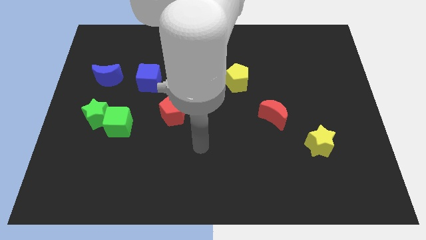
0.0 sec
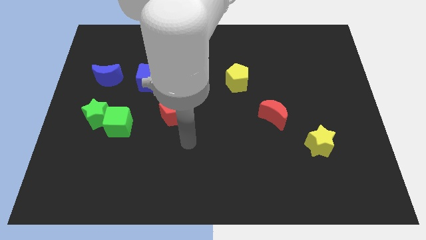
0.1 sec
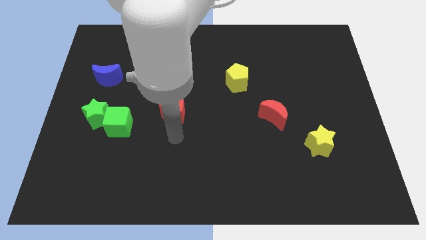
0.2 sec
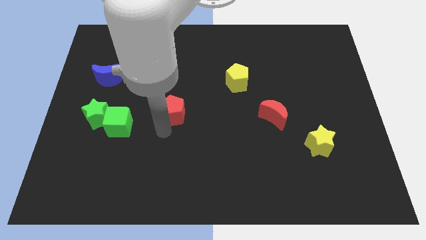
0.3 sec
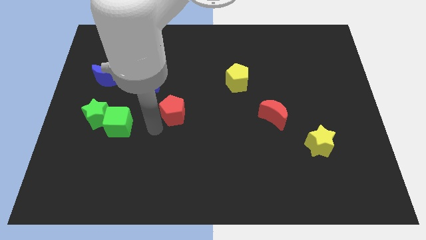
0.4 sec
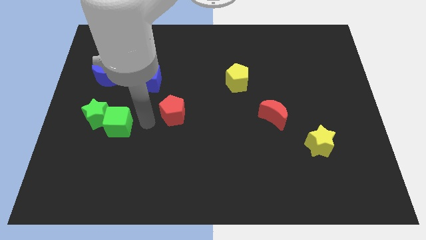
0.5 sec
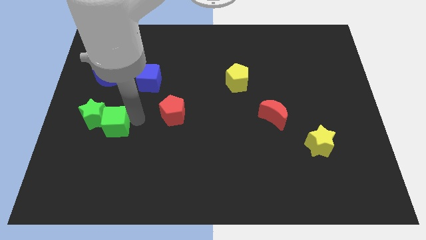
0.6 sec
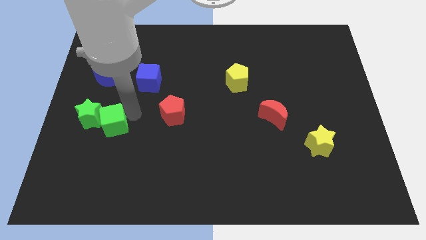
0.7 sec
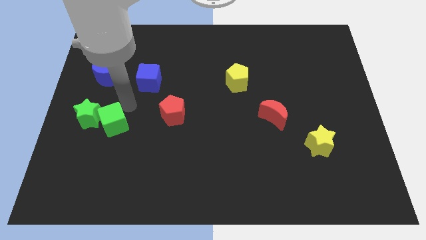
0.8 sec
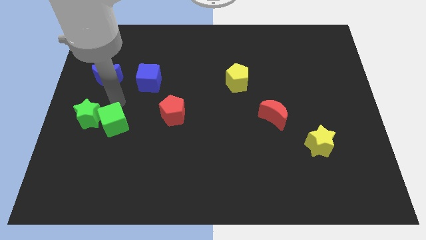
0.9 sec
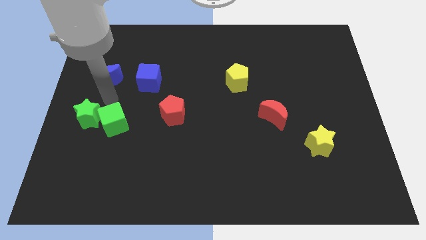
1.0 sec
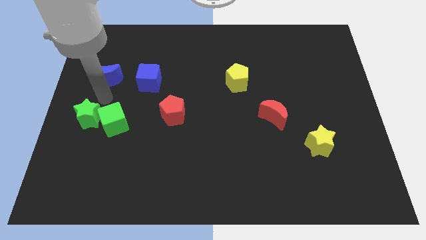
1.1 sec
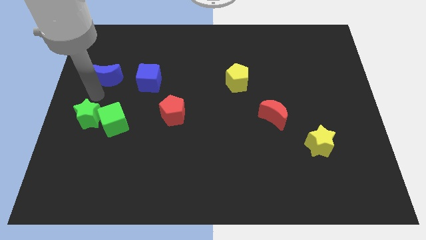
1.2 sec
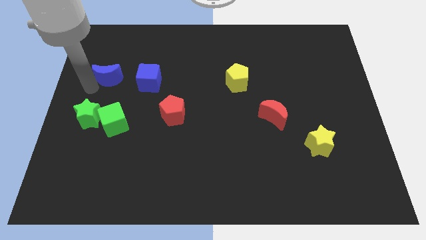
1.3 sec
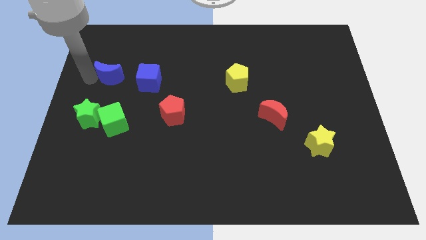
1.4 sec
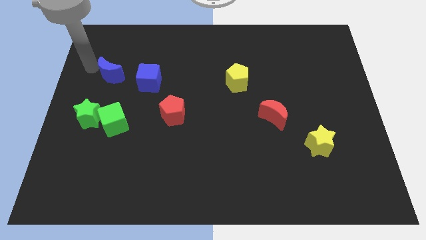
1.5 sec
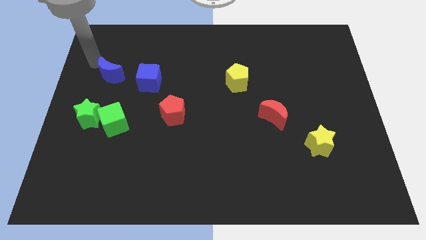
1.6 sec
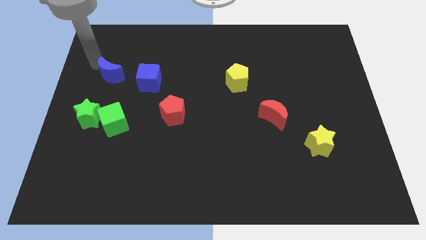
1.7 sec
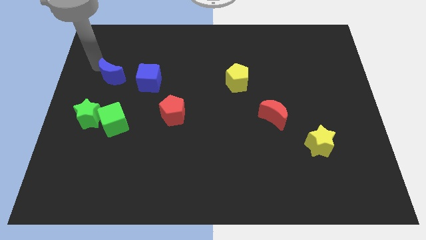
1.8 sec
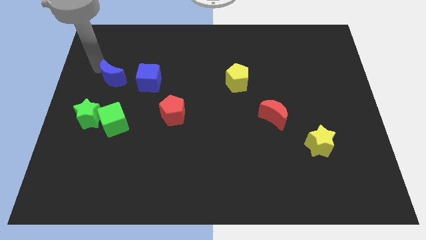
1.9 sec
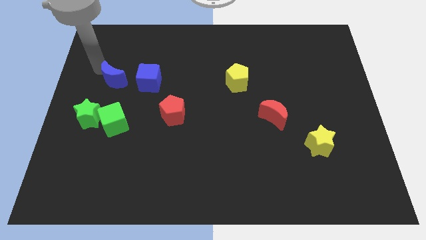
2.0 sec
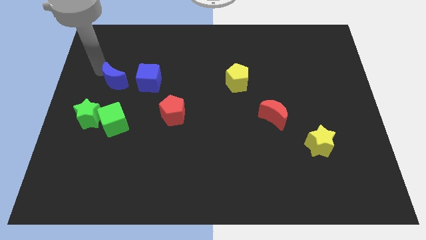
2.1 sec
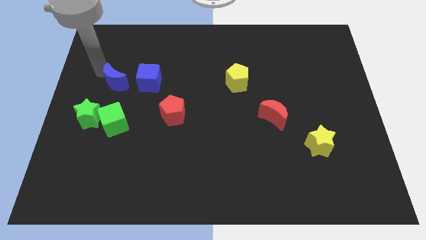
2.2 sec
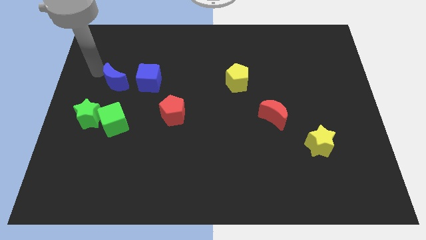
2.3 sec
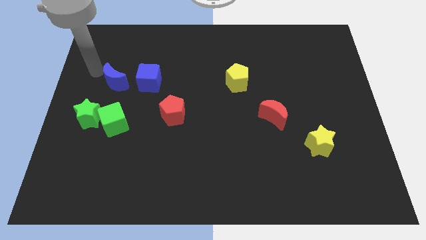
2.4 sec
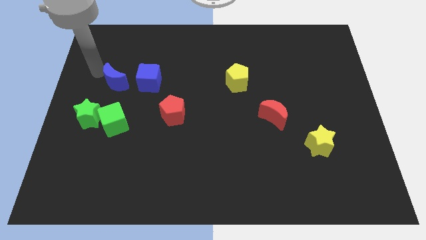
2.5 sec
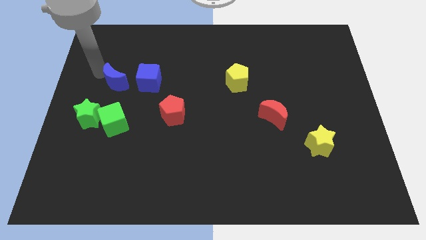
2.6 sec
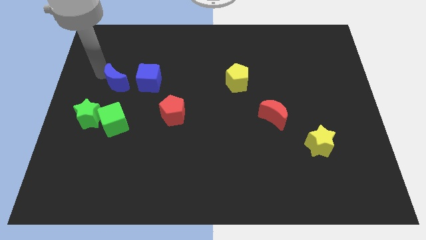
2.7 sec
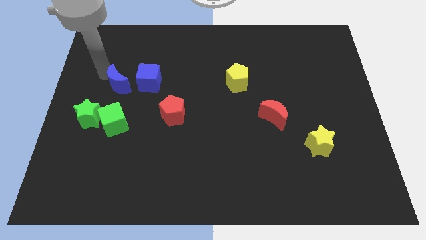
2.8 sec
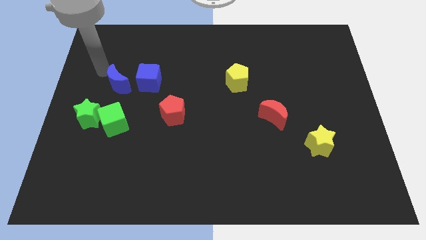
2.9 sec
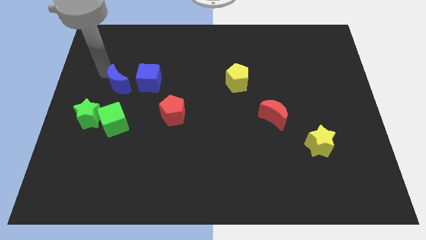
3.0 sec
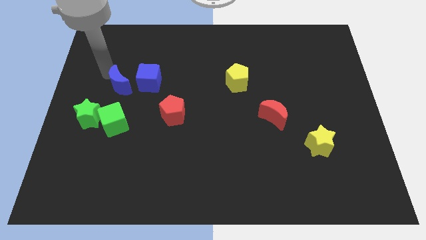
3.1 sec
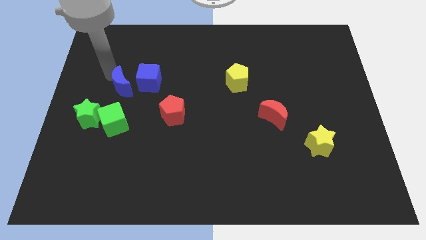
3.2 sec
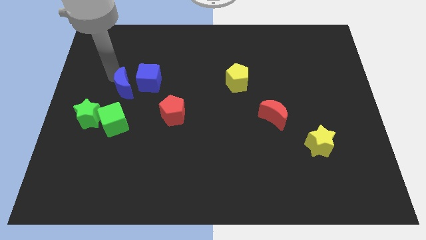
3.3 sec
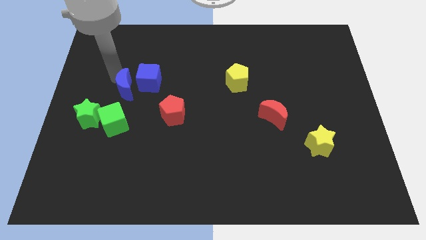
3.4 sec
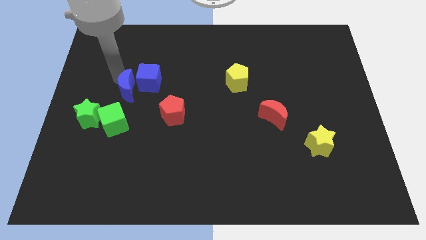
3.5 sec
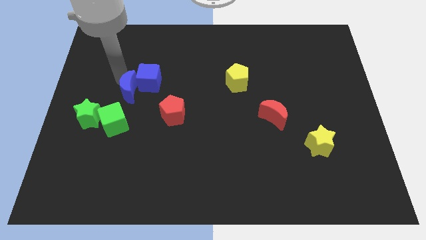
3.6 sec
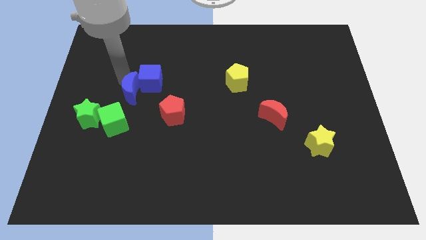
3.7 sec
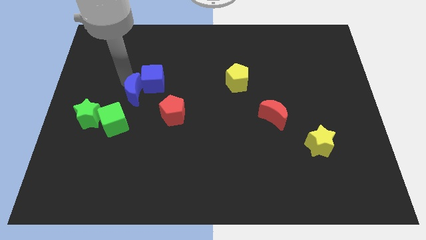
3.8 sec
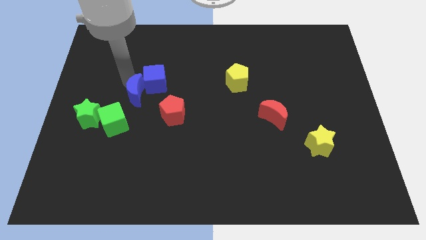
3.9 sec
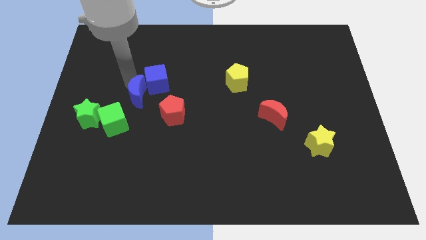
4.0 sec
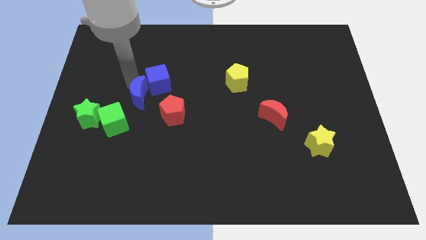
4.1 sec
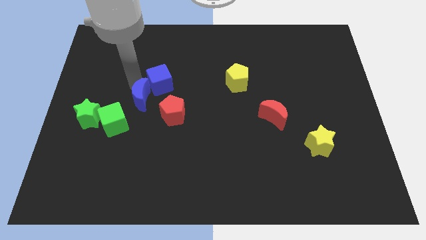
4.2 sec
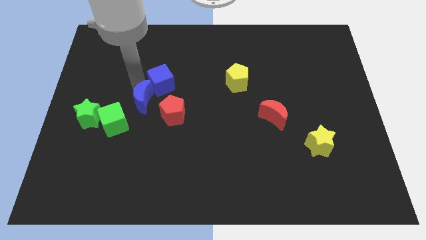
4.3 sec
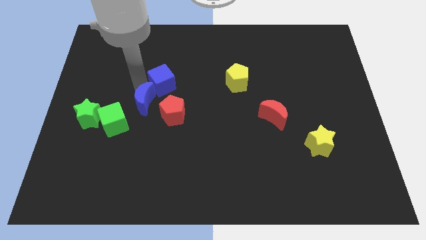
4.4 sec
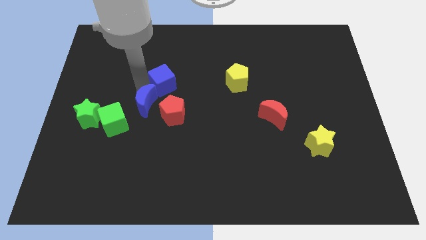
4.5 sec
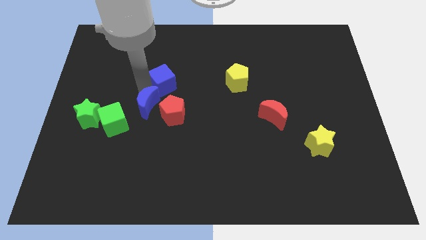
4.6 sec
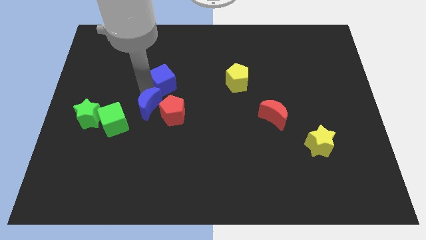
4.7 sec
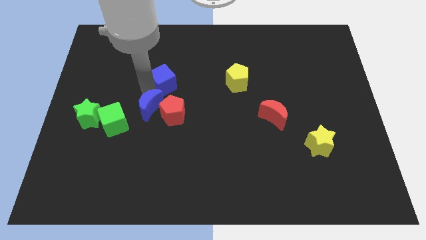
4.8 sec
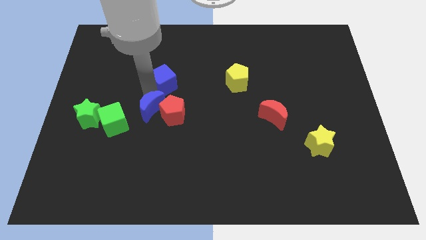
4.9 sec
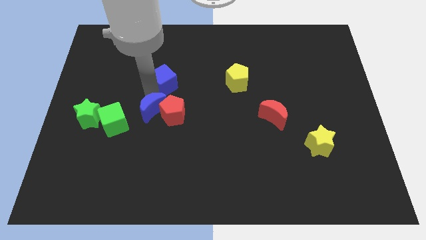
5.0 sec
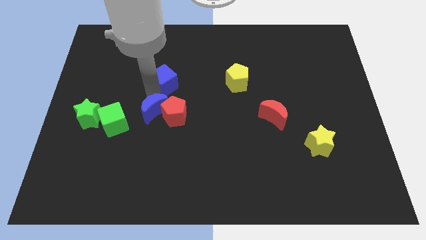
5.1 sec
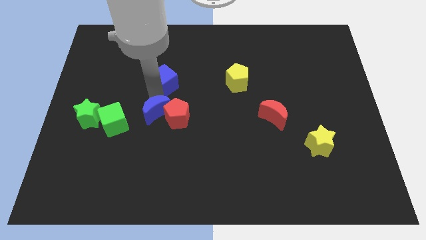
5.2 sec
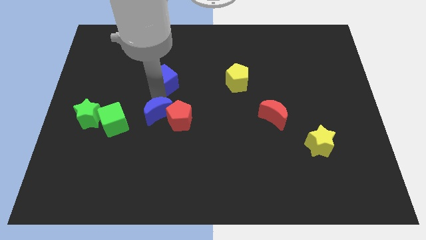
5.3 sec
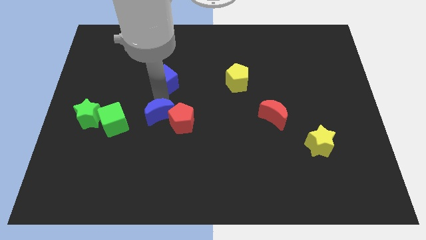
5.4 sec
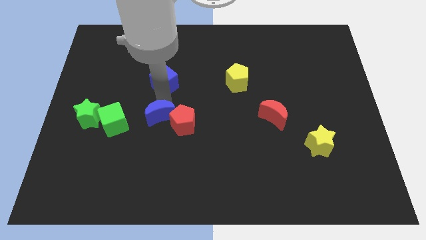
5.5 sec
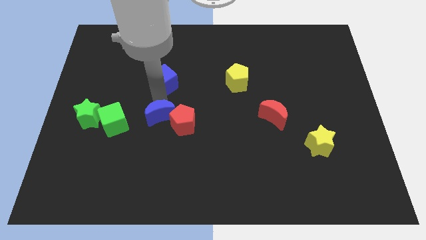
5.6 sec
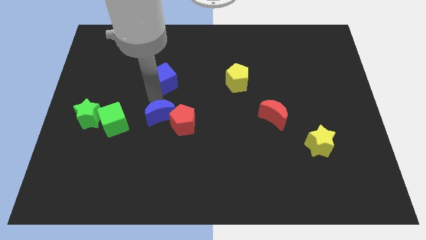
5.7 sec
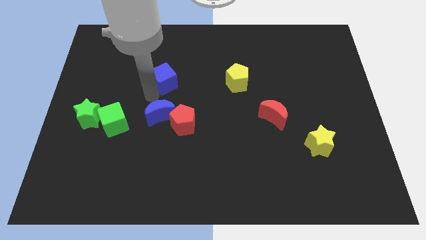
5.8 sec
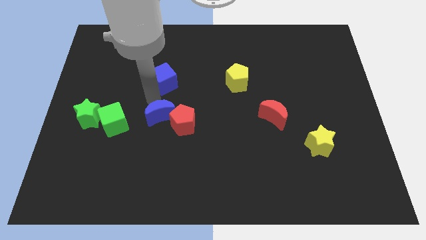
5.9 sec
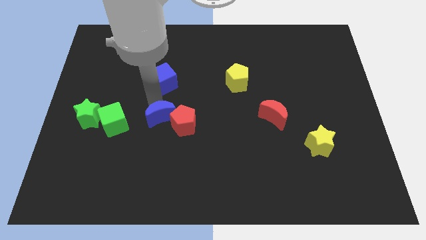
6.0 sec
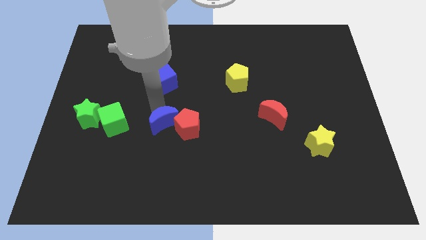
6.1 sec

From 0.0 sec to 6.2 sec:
push the blue moon diagonally down and right

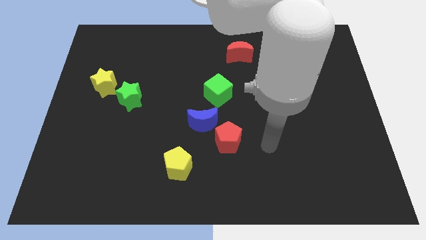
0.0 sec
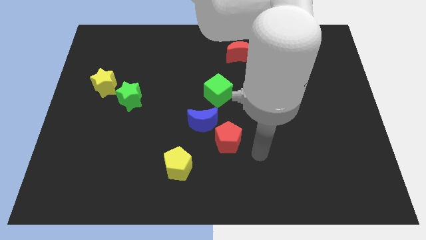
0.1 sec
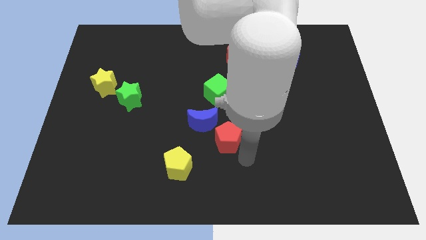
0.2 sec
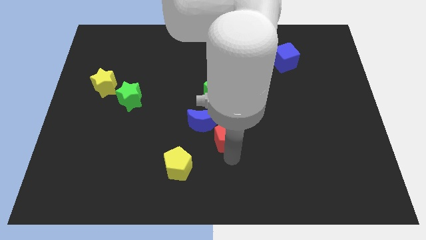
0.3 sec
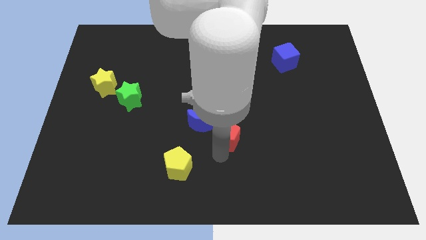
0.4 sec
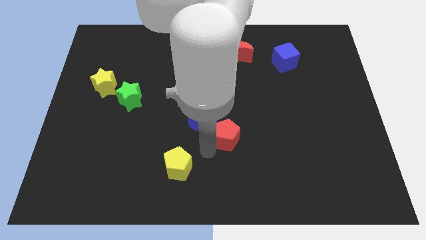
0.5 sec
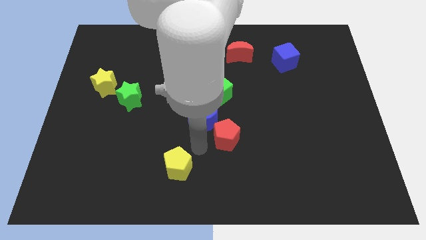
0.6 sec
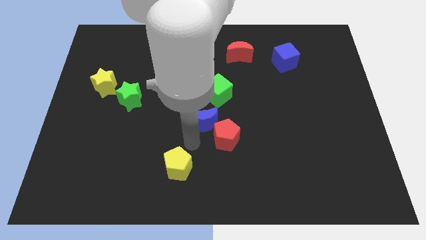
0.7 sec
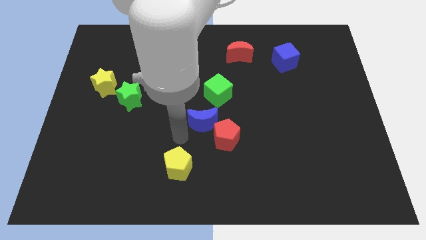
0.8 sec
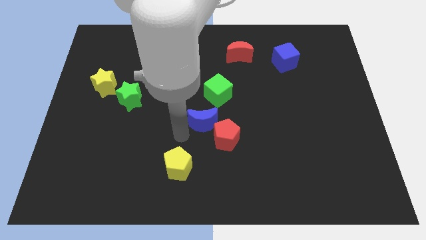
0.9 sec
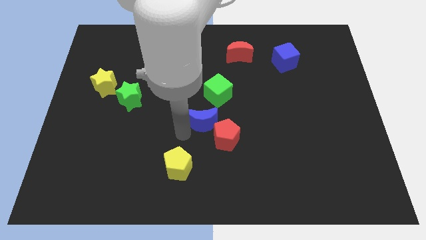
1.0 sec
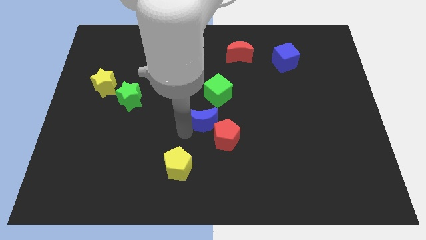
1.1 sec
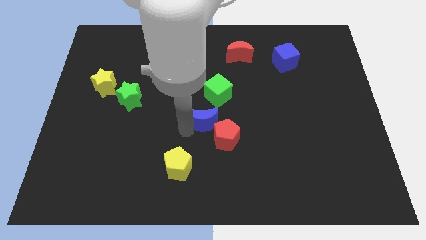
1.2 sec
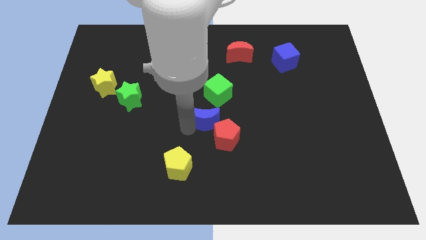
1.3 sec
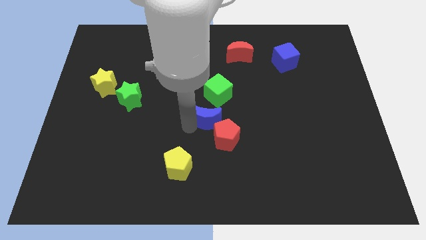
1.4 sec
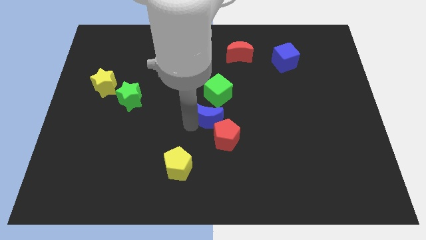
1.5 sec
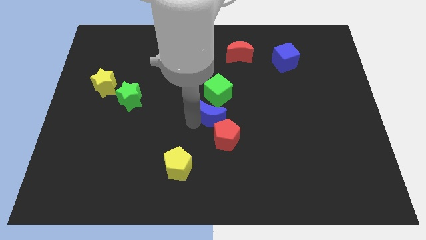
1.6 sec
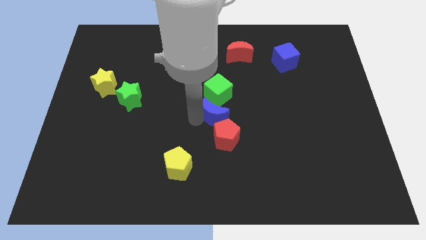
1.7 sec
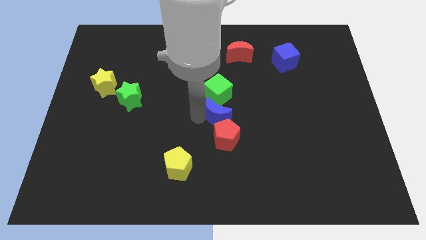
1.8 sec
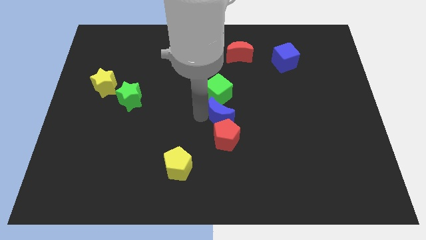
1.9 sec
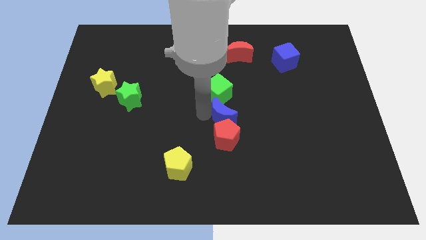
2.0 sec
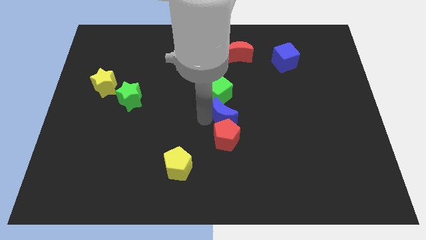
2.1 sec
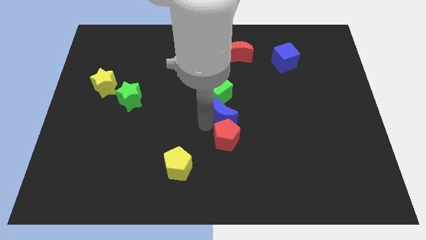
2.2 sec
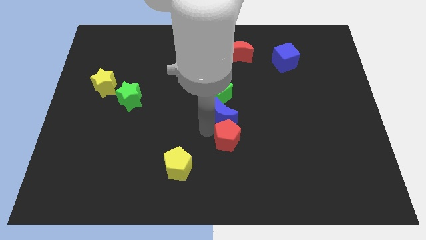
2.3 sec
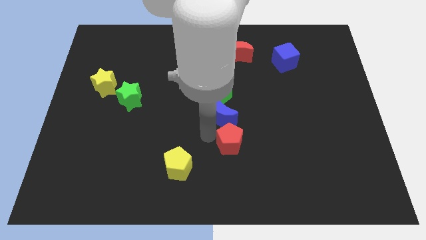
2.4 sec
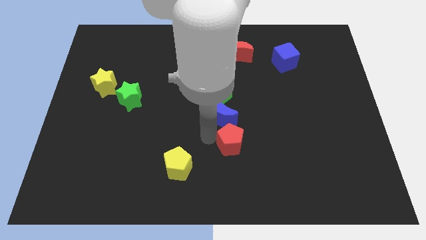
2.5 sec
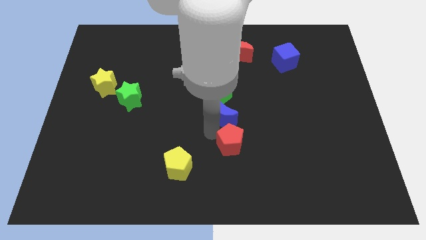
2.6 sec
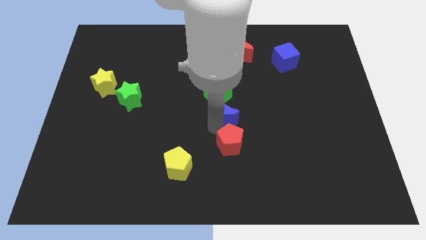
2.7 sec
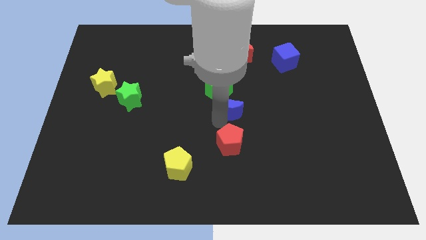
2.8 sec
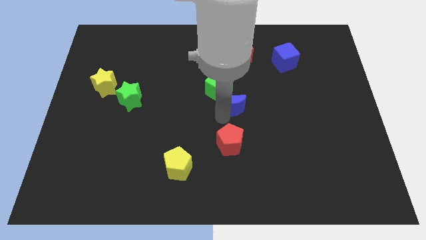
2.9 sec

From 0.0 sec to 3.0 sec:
move the blue moon a bit diagonally upwards and to the right
